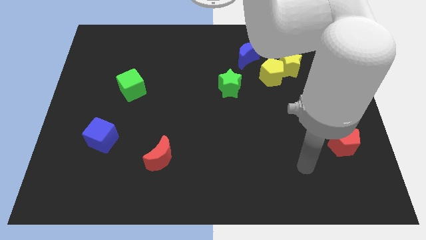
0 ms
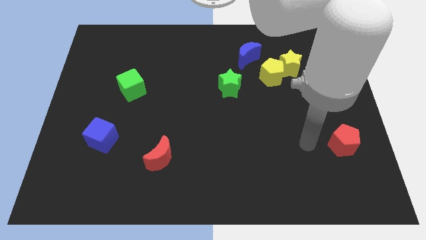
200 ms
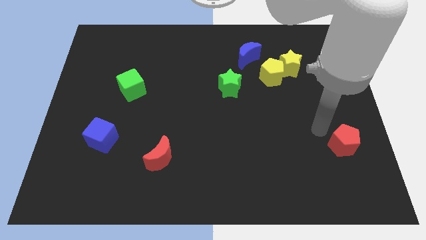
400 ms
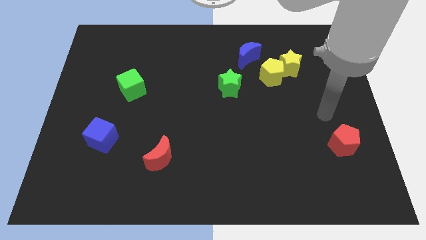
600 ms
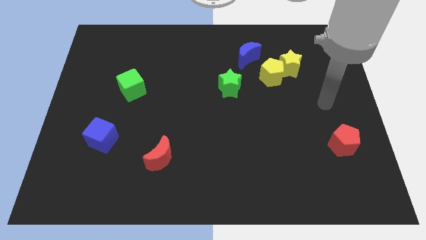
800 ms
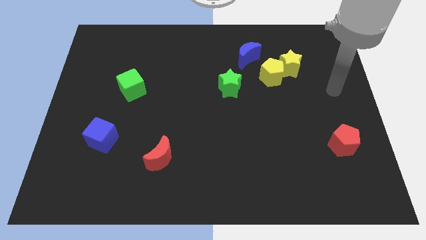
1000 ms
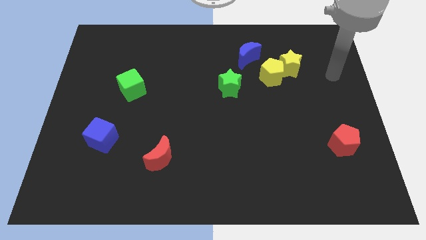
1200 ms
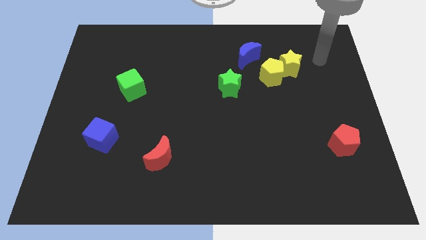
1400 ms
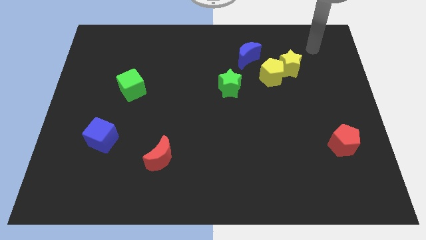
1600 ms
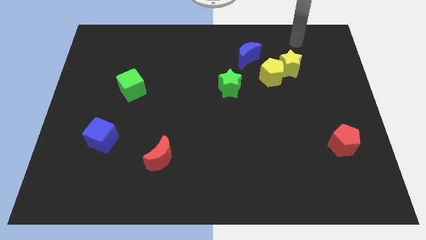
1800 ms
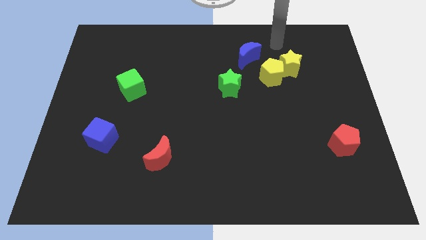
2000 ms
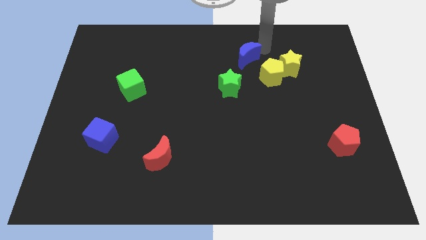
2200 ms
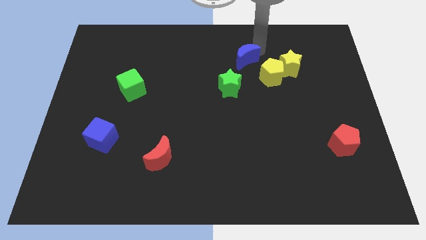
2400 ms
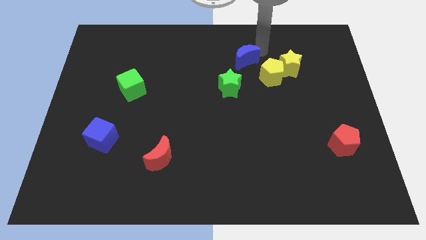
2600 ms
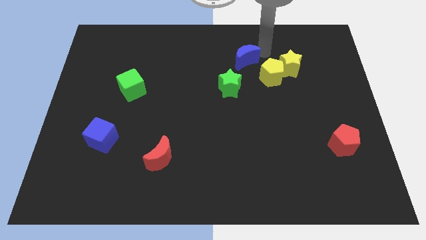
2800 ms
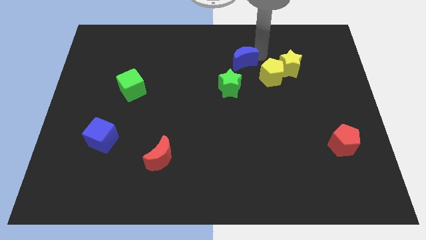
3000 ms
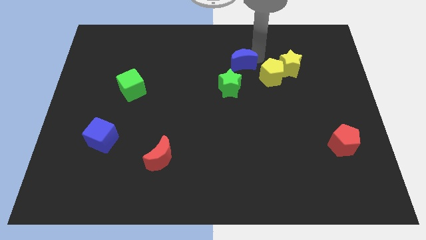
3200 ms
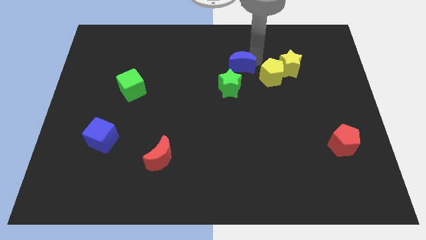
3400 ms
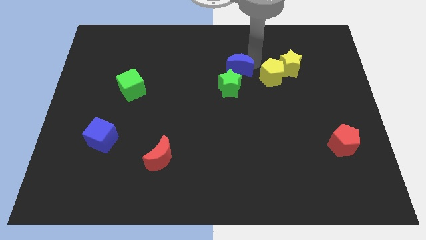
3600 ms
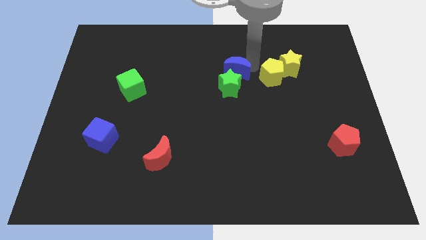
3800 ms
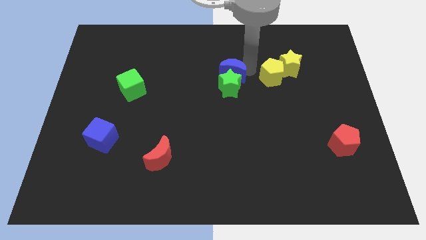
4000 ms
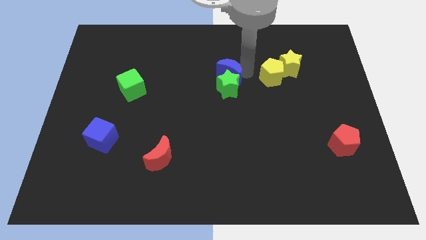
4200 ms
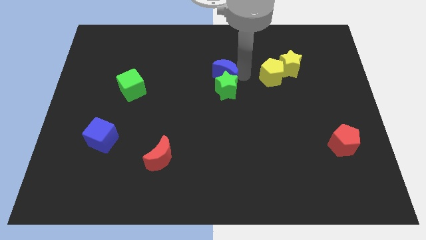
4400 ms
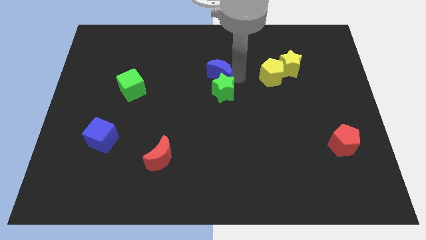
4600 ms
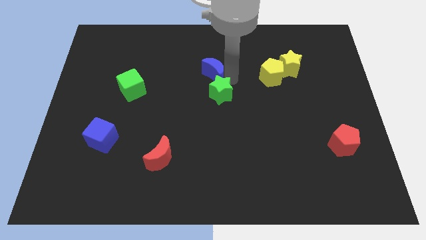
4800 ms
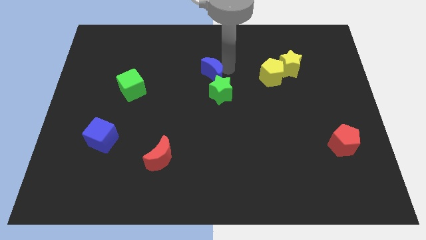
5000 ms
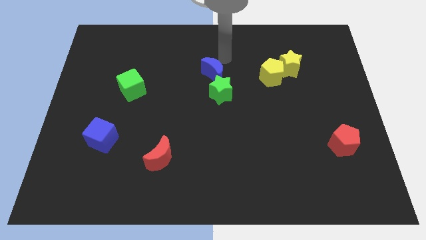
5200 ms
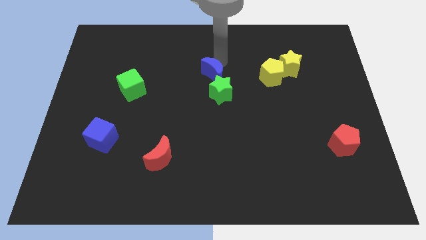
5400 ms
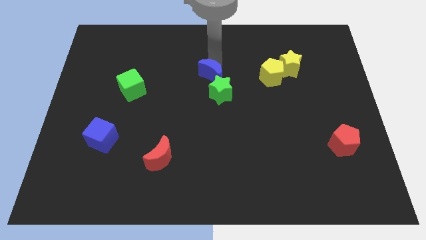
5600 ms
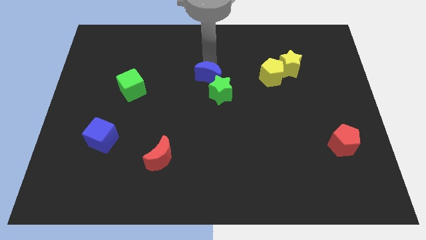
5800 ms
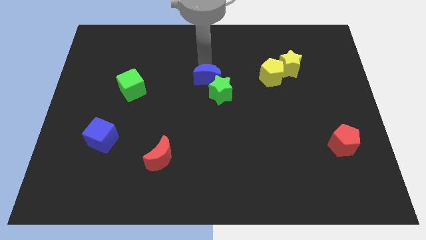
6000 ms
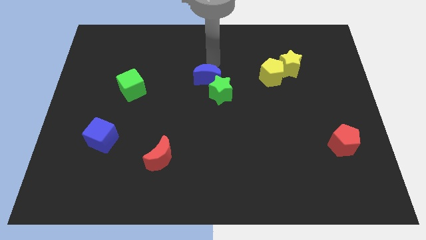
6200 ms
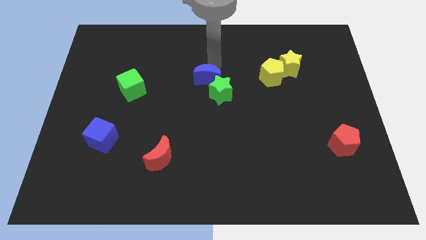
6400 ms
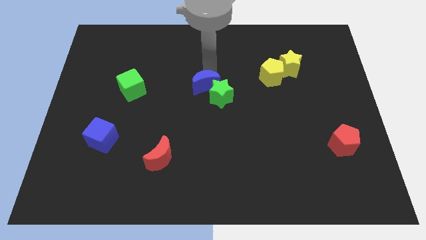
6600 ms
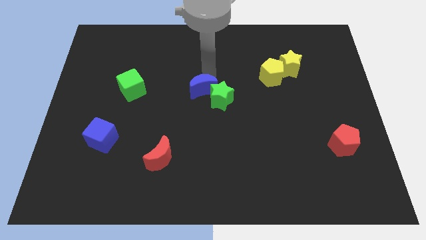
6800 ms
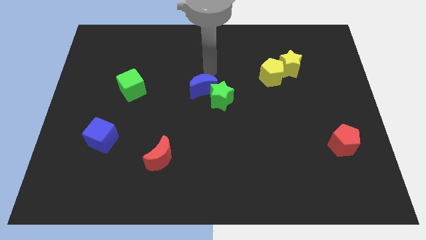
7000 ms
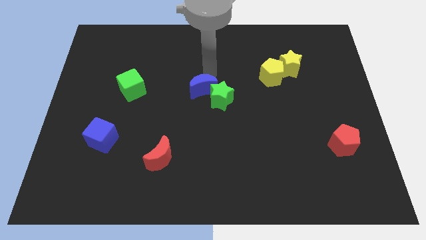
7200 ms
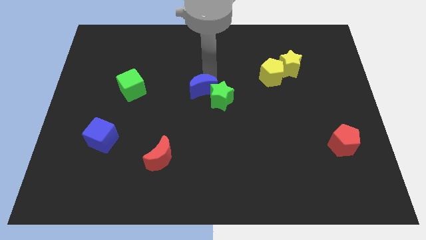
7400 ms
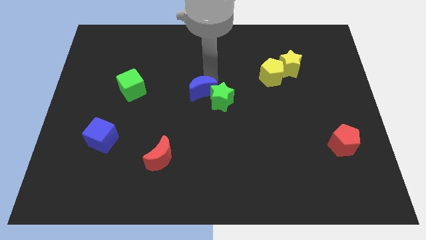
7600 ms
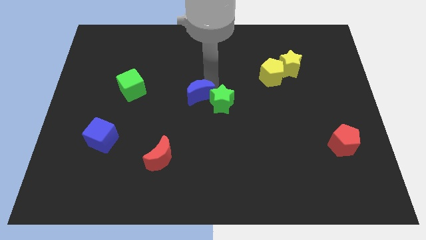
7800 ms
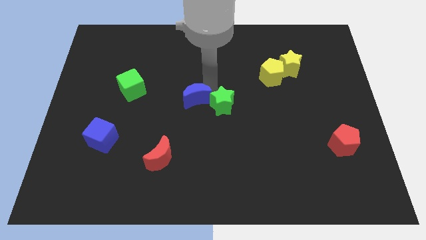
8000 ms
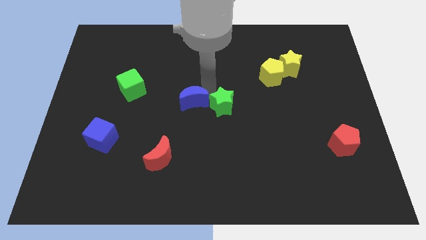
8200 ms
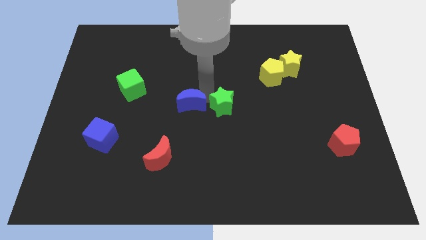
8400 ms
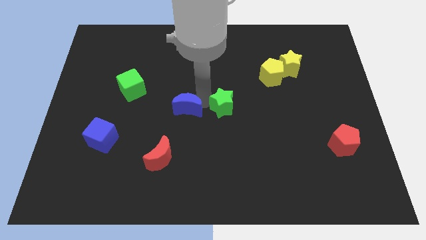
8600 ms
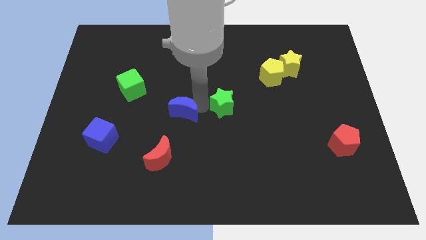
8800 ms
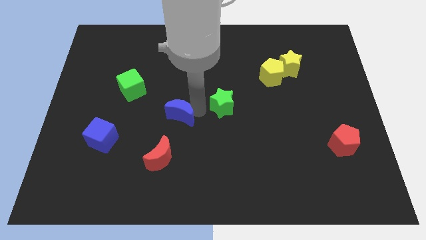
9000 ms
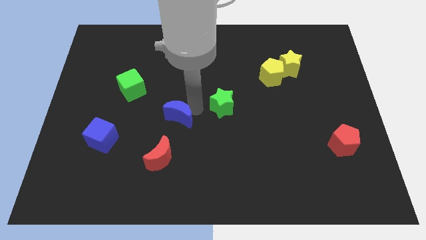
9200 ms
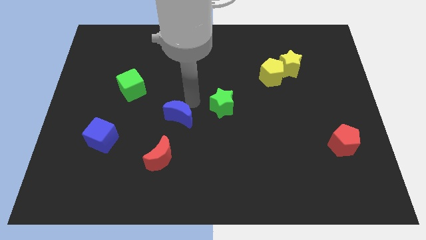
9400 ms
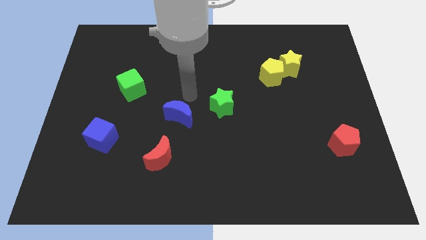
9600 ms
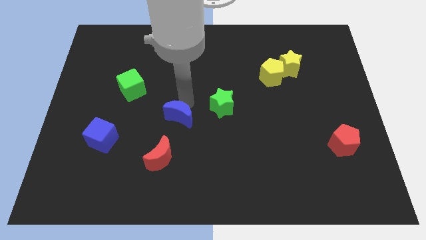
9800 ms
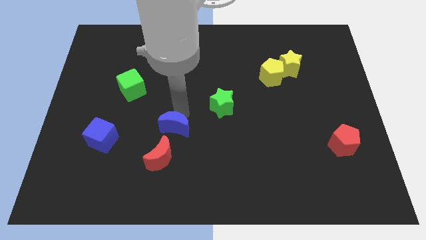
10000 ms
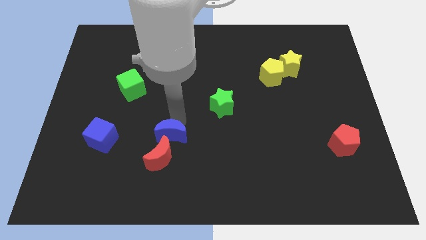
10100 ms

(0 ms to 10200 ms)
put the blue moon towards the red moon

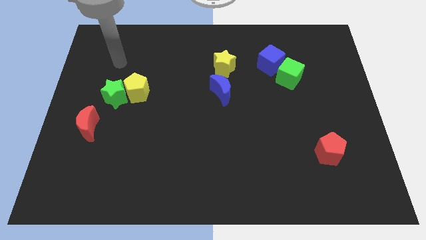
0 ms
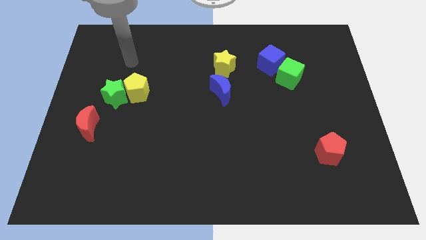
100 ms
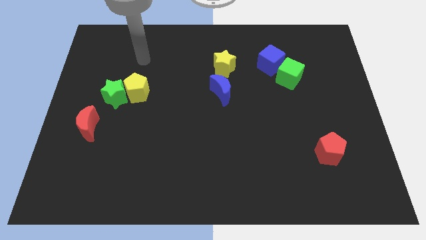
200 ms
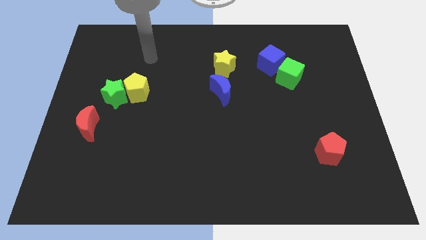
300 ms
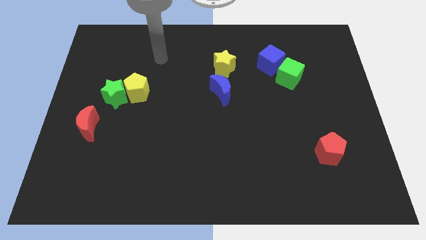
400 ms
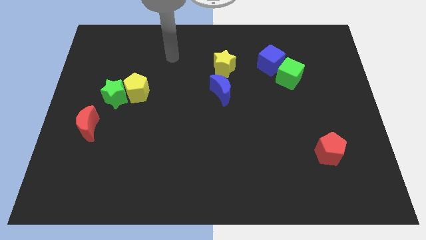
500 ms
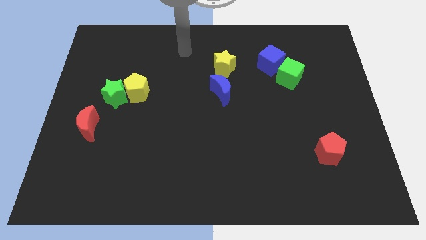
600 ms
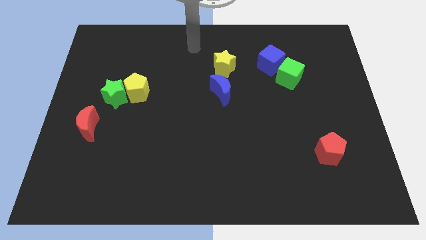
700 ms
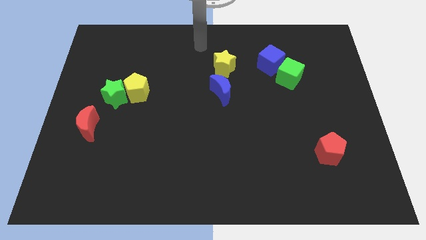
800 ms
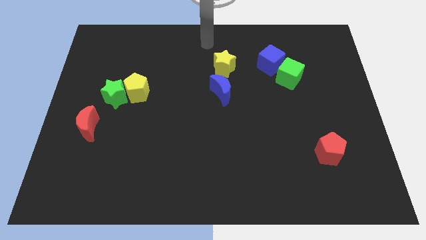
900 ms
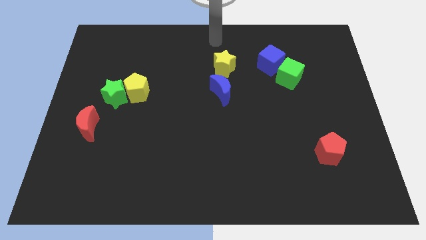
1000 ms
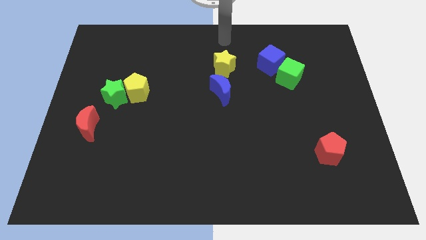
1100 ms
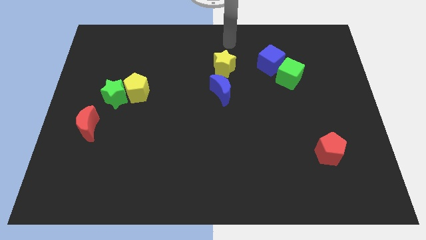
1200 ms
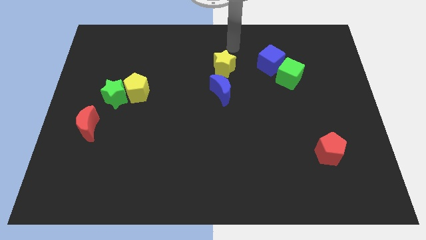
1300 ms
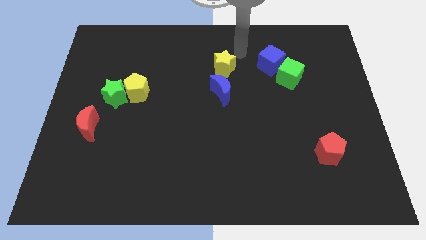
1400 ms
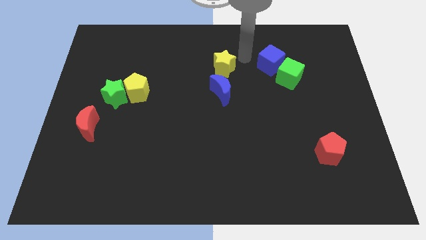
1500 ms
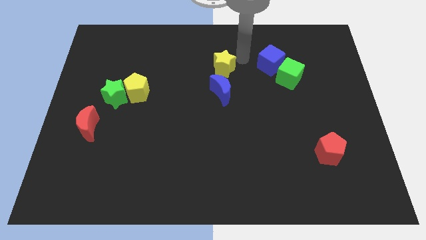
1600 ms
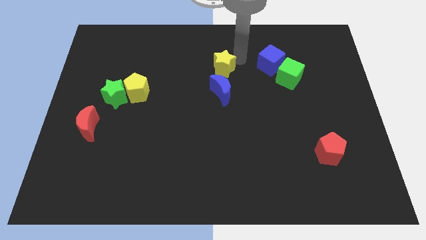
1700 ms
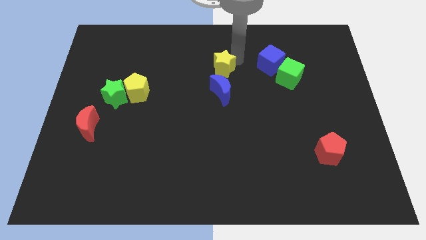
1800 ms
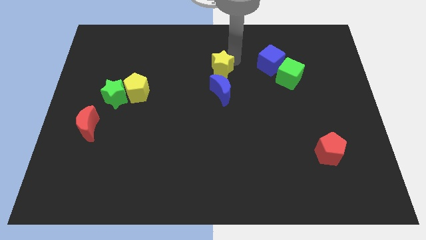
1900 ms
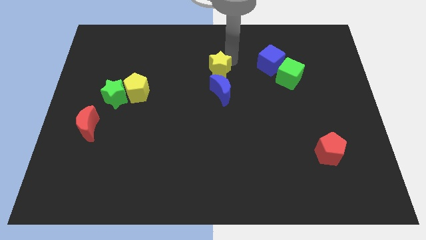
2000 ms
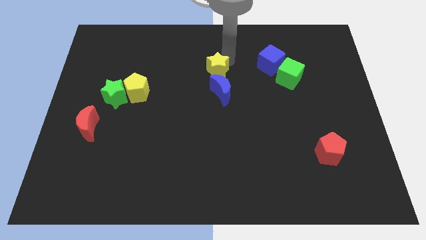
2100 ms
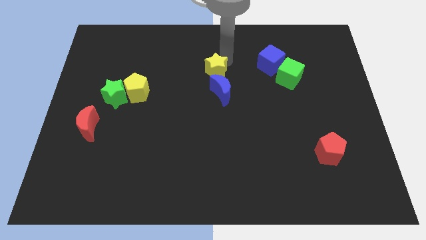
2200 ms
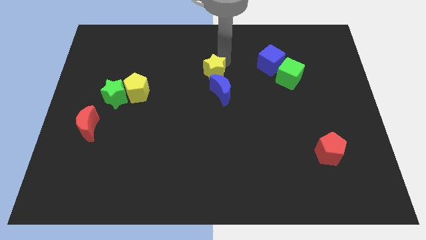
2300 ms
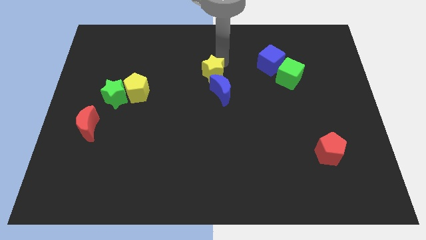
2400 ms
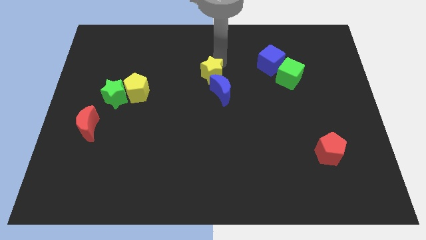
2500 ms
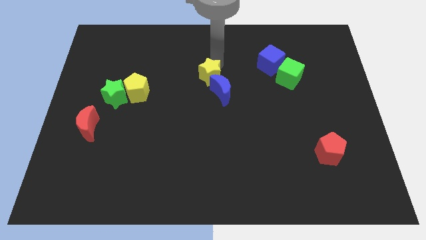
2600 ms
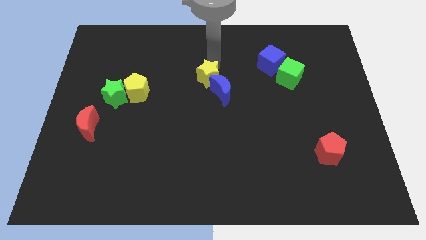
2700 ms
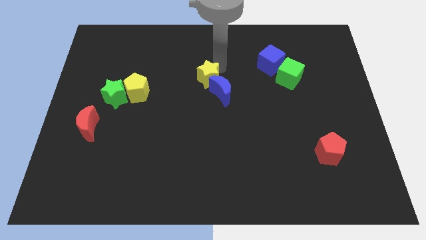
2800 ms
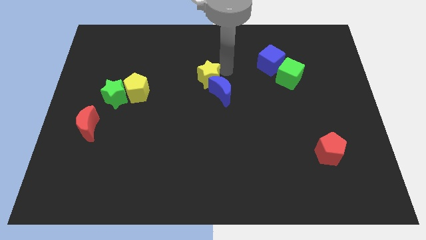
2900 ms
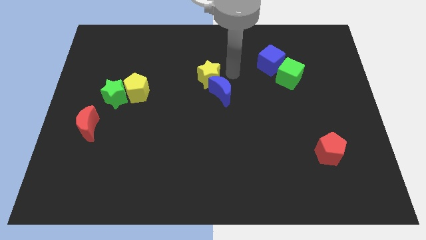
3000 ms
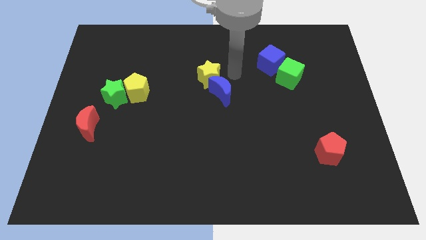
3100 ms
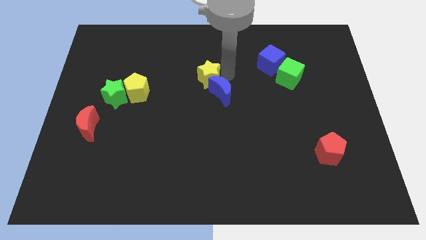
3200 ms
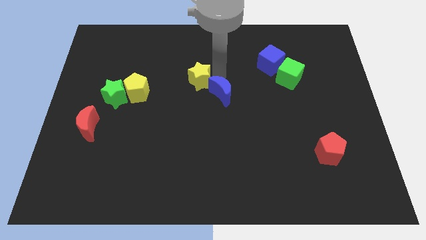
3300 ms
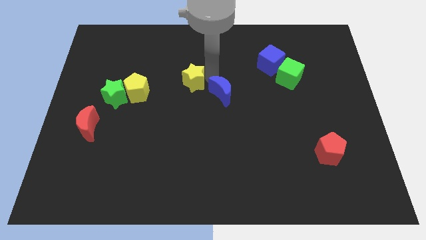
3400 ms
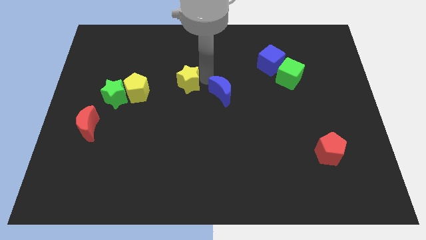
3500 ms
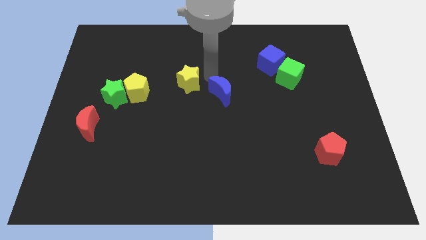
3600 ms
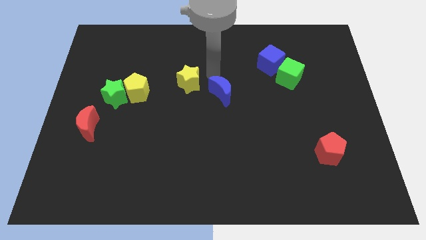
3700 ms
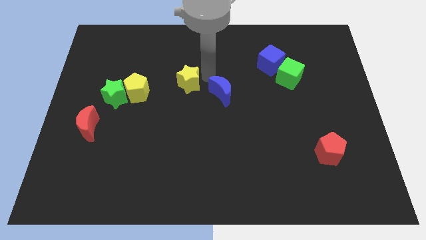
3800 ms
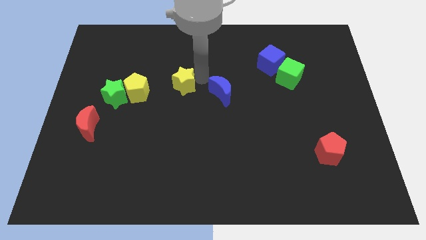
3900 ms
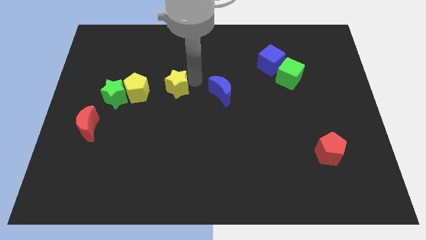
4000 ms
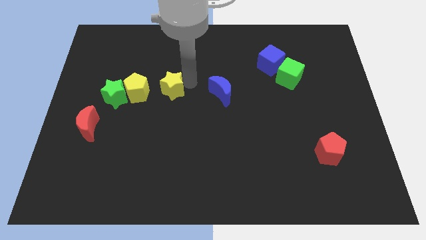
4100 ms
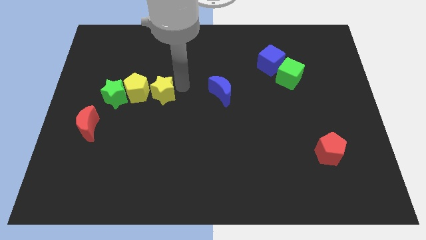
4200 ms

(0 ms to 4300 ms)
put the yellow star close to the yellow pentagon
